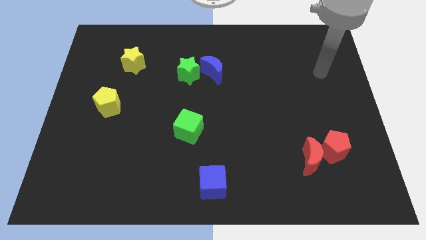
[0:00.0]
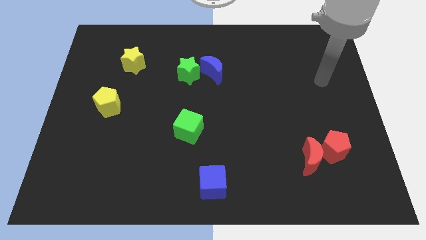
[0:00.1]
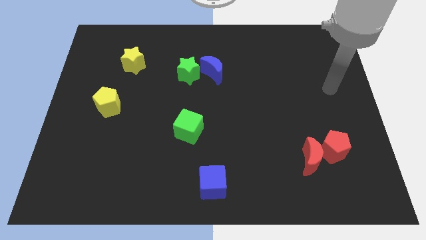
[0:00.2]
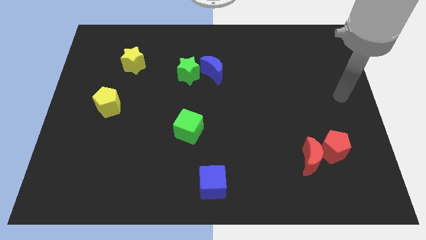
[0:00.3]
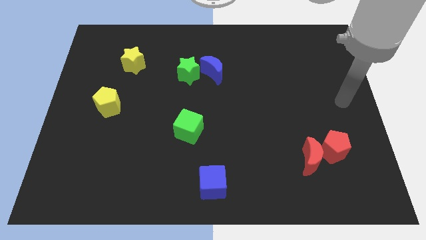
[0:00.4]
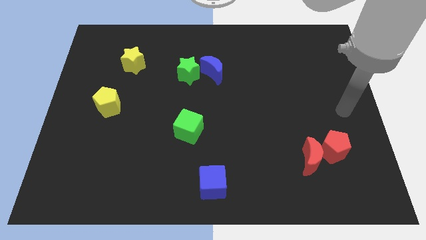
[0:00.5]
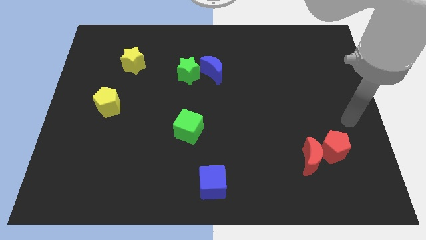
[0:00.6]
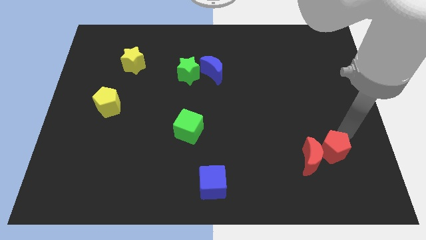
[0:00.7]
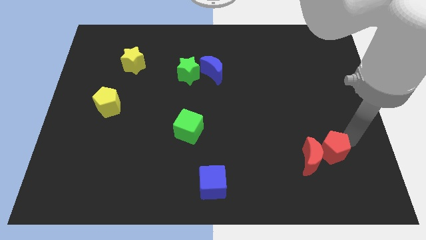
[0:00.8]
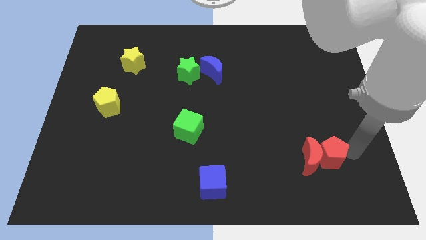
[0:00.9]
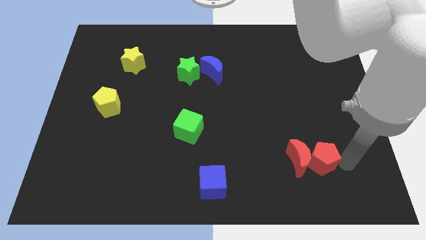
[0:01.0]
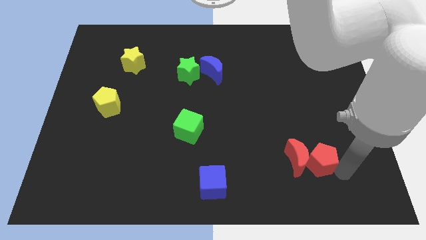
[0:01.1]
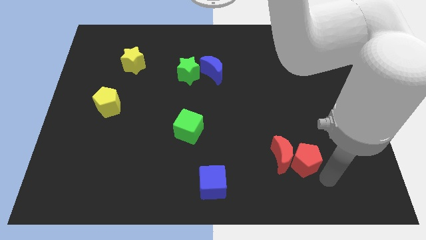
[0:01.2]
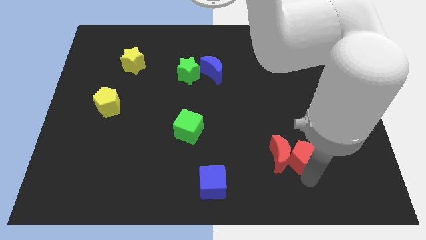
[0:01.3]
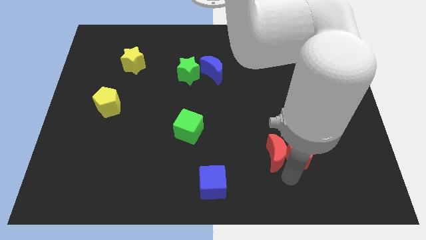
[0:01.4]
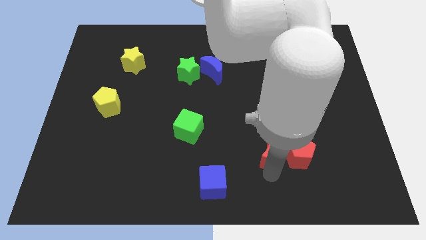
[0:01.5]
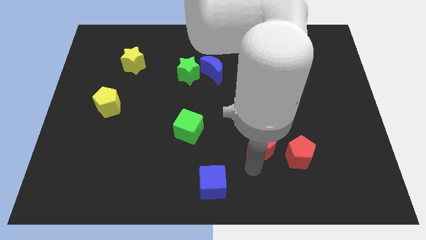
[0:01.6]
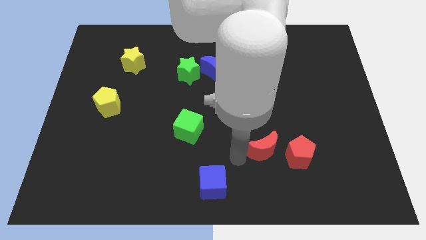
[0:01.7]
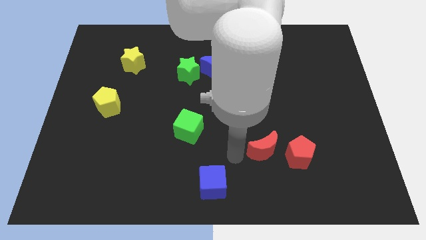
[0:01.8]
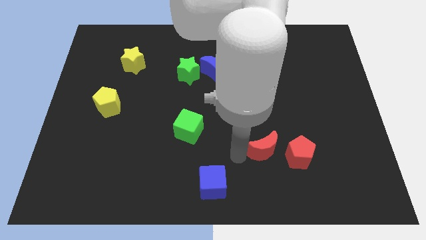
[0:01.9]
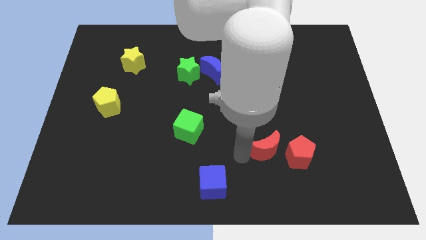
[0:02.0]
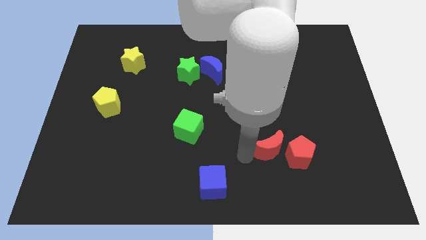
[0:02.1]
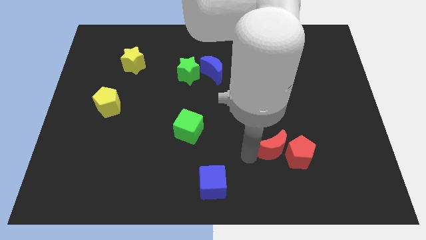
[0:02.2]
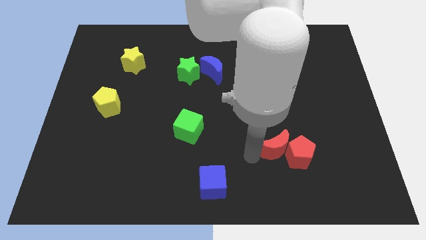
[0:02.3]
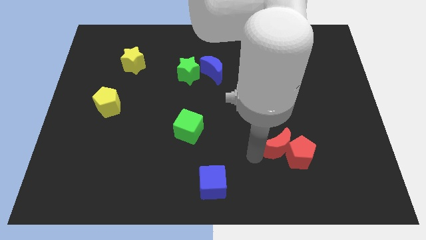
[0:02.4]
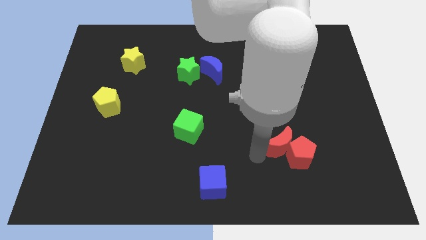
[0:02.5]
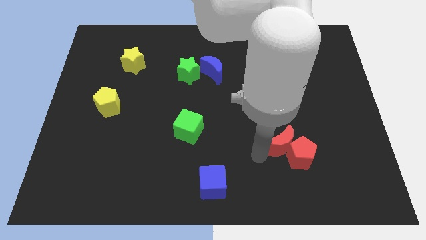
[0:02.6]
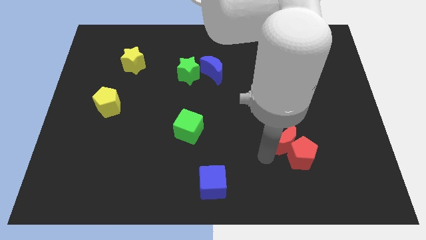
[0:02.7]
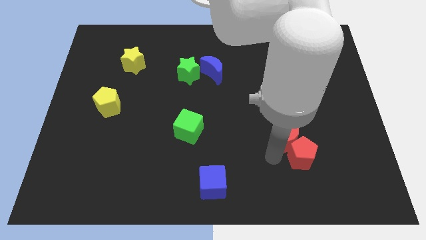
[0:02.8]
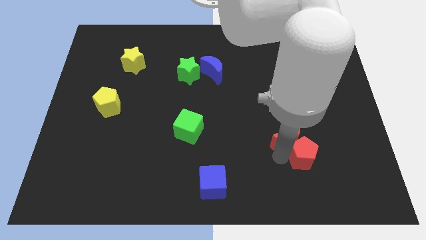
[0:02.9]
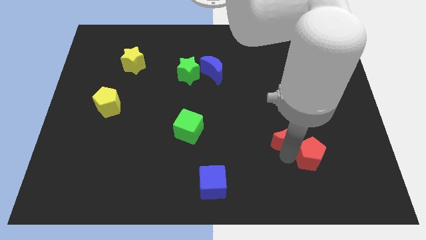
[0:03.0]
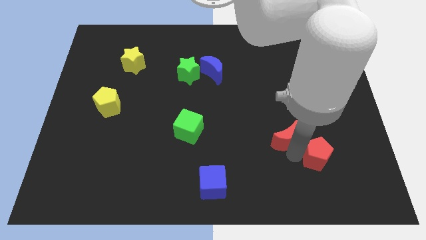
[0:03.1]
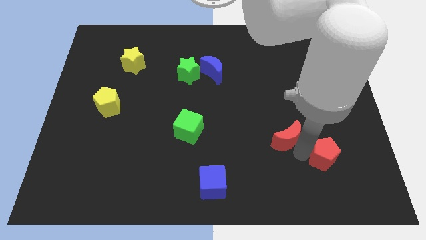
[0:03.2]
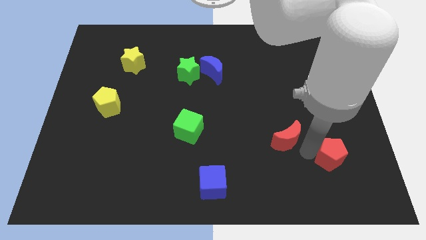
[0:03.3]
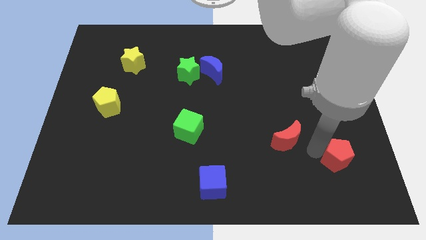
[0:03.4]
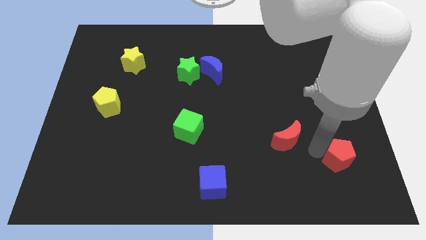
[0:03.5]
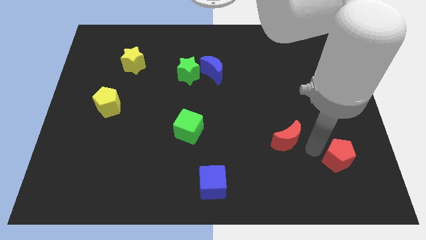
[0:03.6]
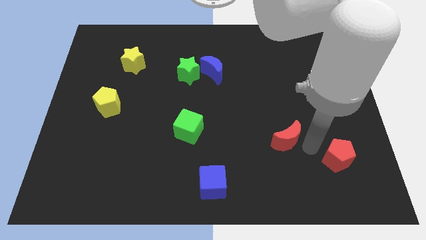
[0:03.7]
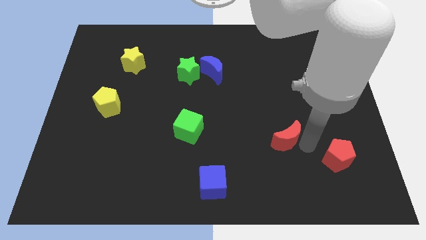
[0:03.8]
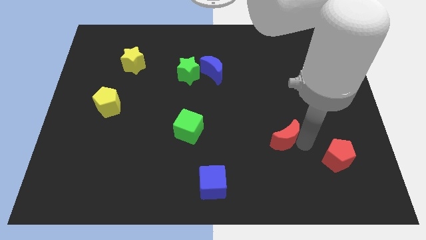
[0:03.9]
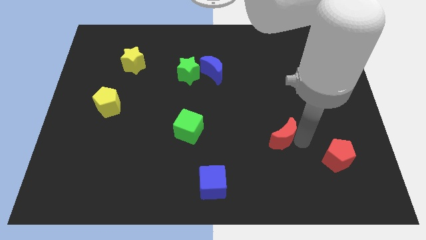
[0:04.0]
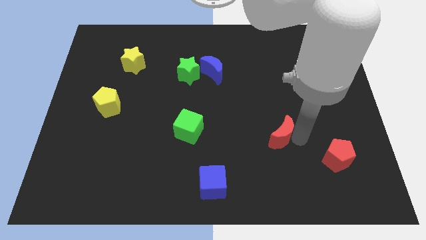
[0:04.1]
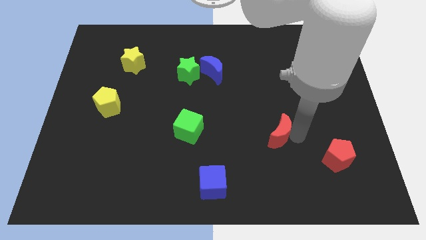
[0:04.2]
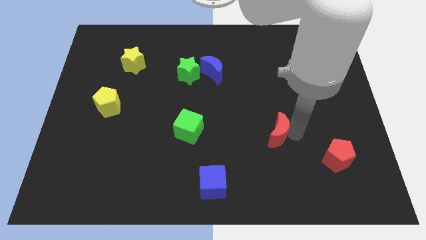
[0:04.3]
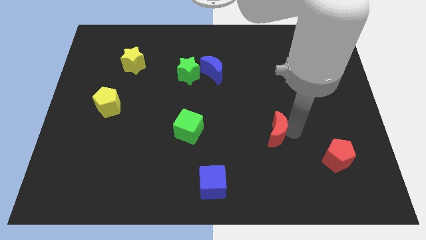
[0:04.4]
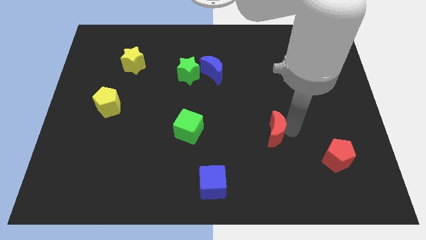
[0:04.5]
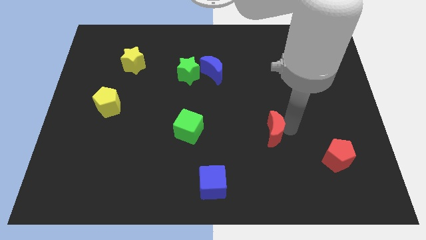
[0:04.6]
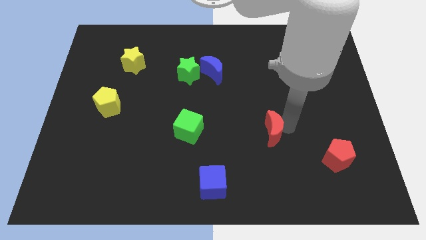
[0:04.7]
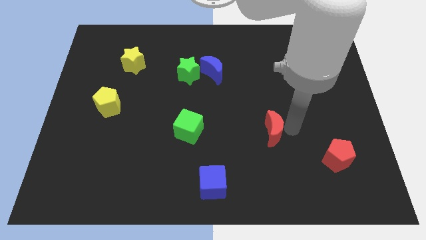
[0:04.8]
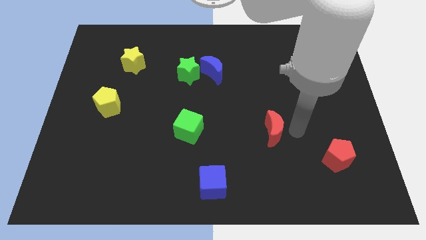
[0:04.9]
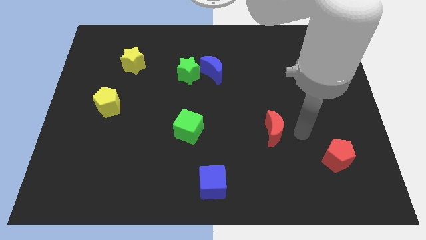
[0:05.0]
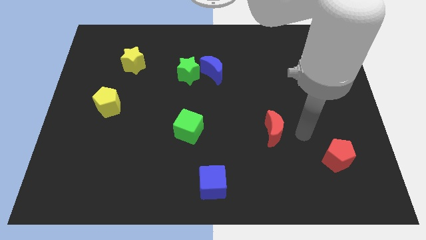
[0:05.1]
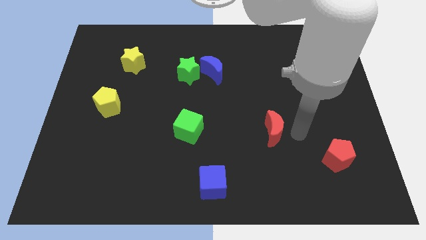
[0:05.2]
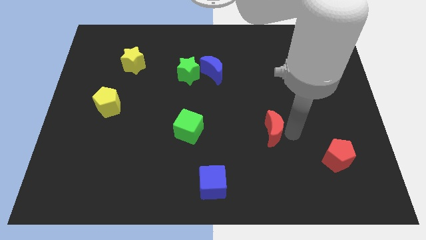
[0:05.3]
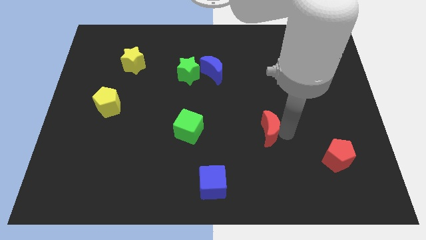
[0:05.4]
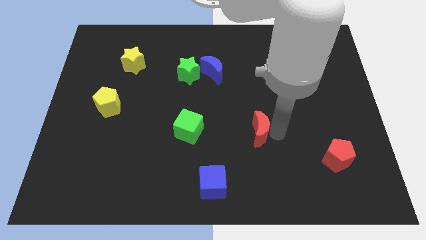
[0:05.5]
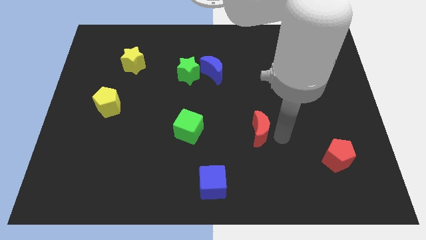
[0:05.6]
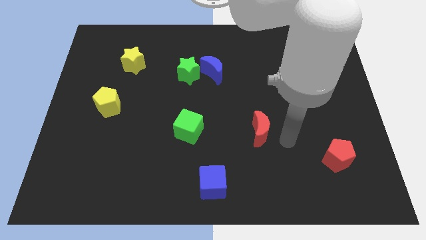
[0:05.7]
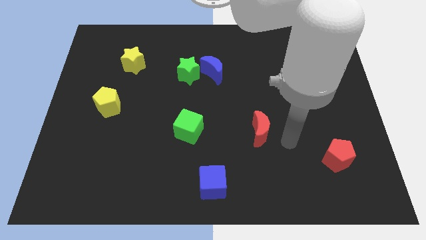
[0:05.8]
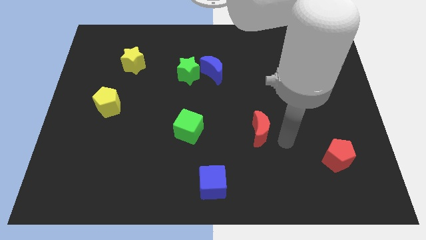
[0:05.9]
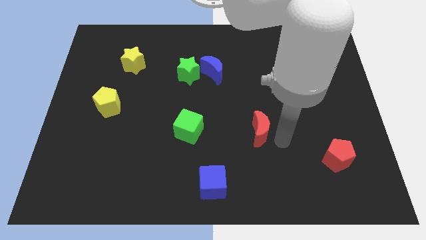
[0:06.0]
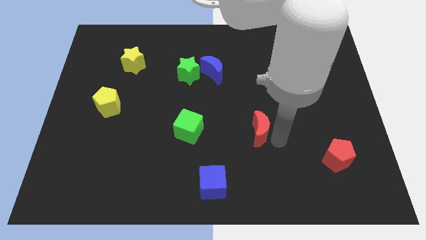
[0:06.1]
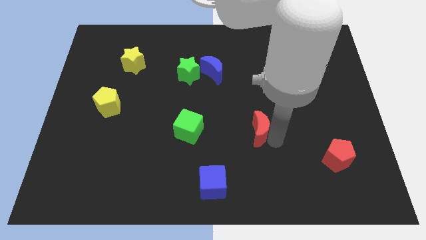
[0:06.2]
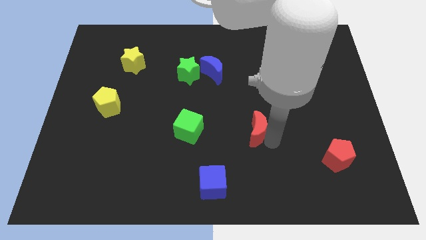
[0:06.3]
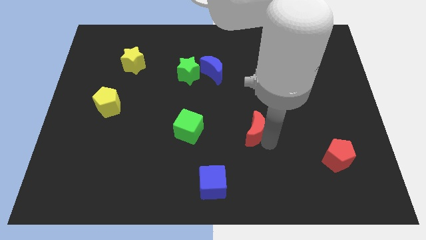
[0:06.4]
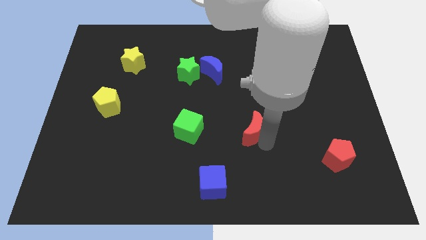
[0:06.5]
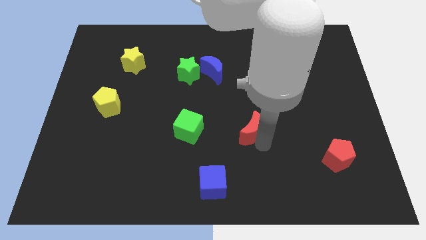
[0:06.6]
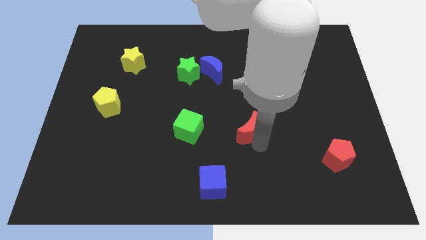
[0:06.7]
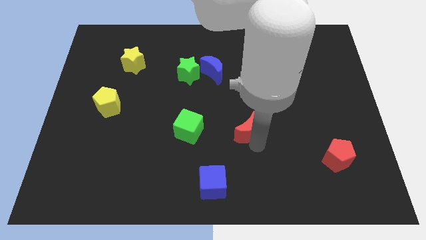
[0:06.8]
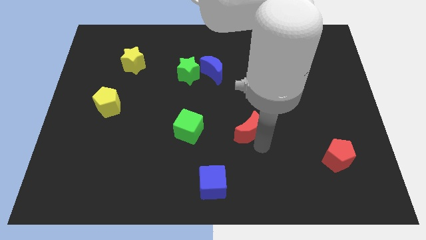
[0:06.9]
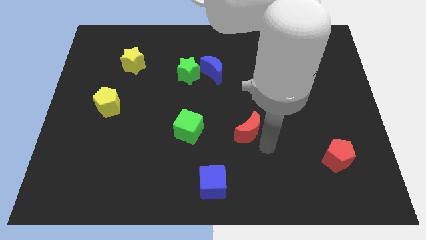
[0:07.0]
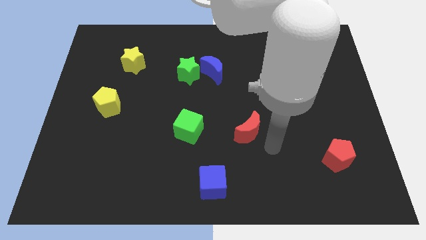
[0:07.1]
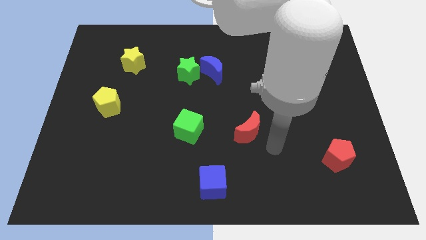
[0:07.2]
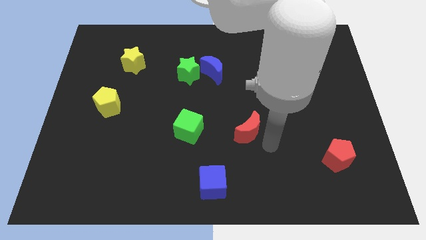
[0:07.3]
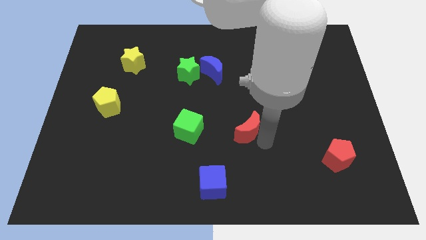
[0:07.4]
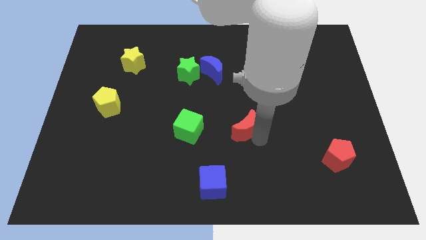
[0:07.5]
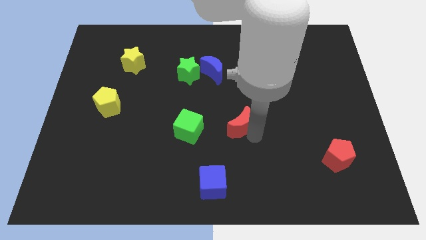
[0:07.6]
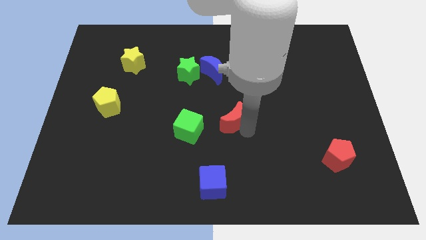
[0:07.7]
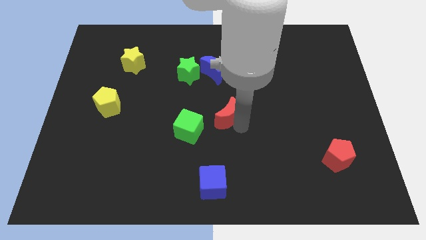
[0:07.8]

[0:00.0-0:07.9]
move the red moon to the top right side of the green cube
